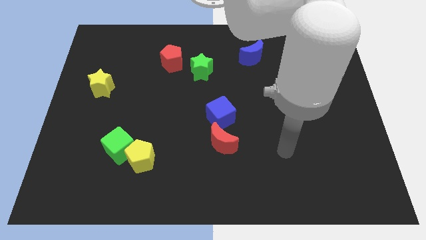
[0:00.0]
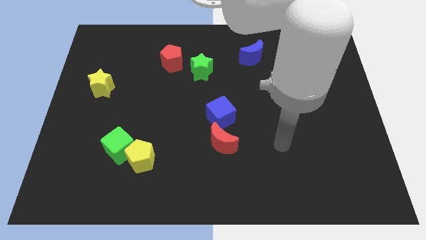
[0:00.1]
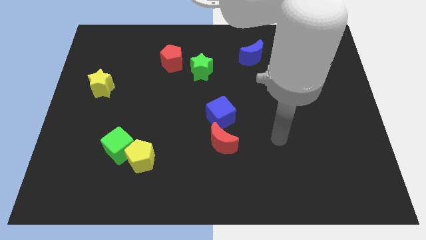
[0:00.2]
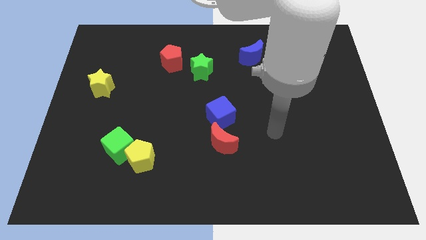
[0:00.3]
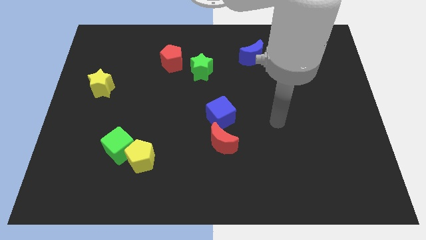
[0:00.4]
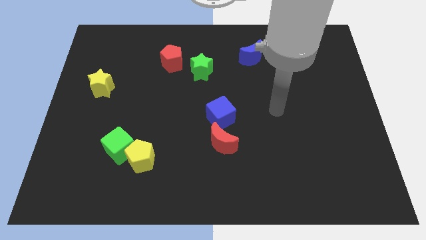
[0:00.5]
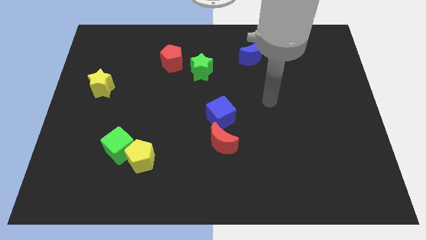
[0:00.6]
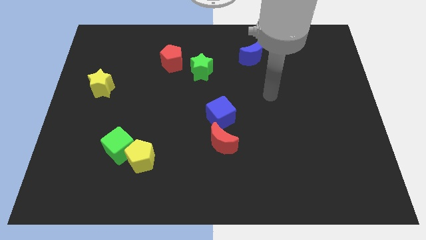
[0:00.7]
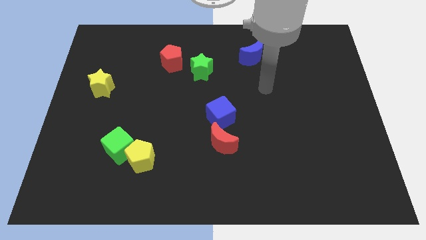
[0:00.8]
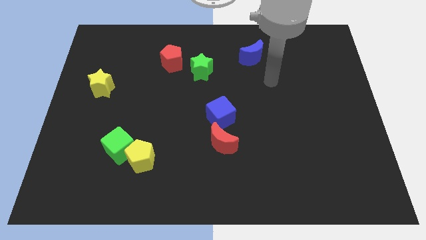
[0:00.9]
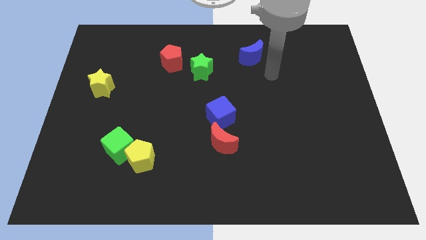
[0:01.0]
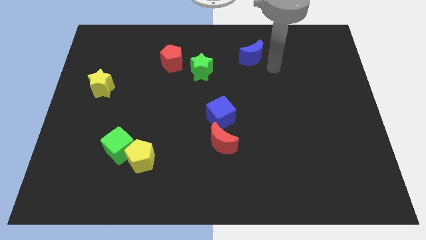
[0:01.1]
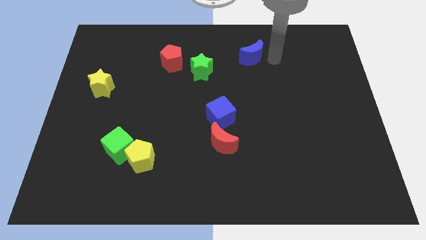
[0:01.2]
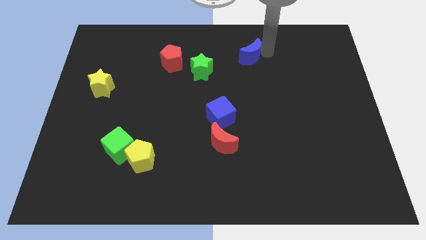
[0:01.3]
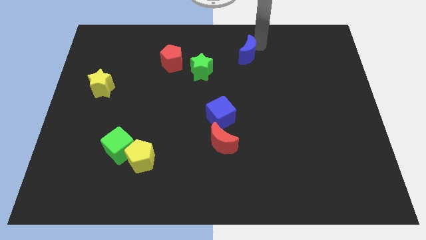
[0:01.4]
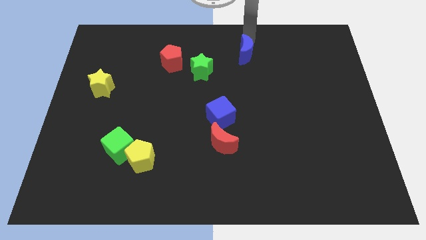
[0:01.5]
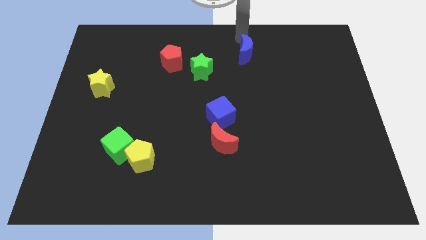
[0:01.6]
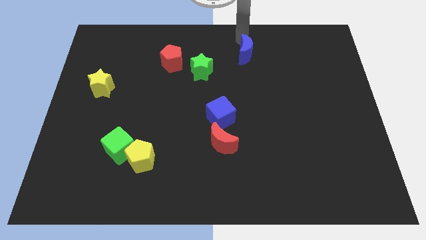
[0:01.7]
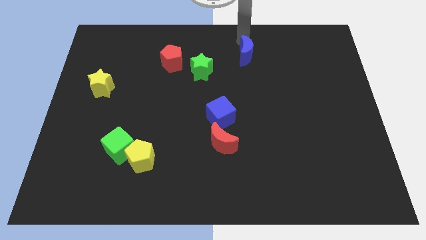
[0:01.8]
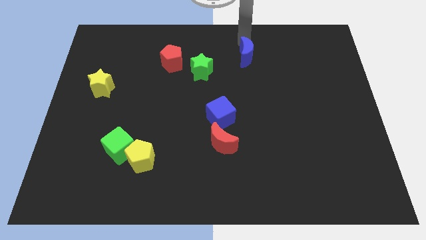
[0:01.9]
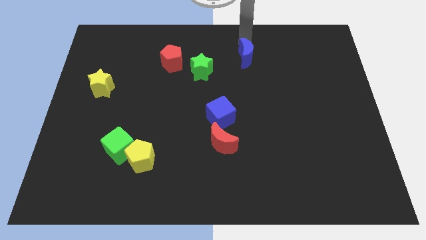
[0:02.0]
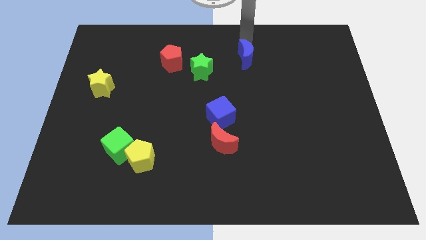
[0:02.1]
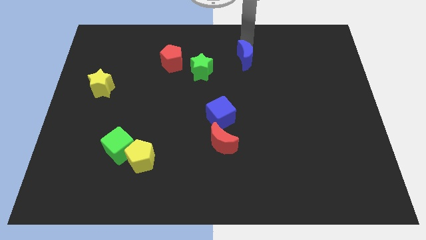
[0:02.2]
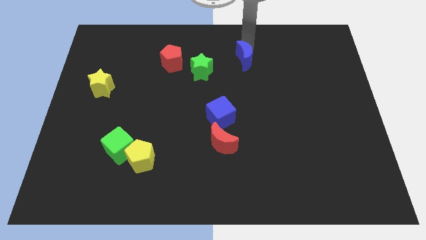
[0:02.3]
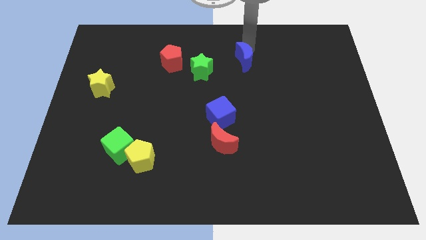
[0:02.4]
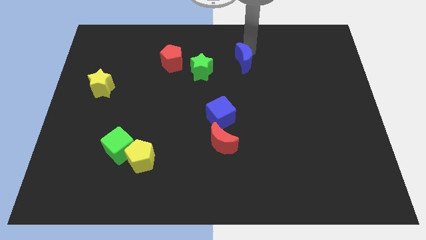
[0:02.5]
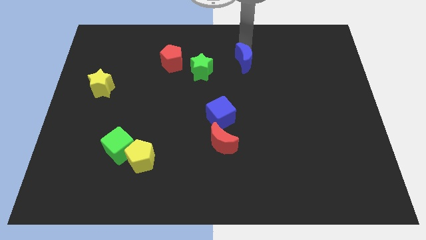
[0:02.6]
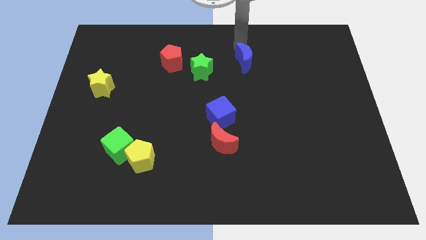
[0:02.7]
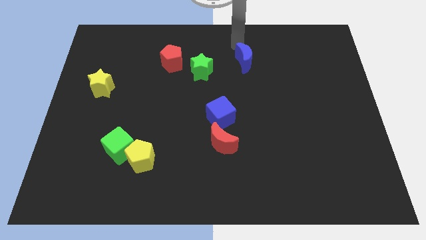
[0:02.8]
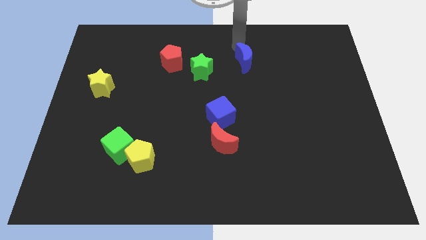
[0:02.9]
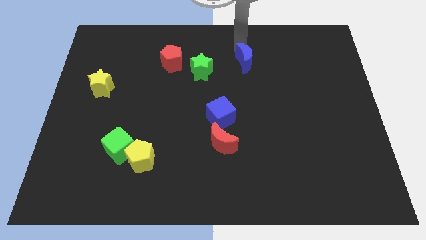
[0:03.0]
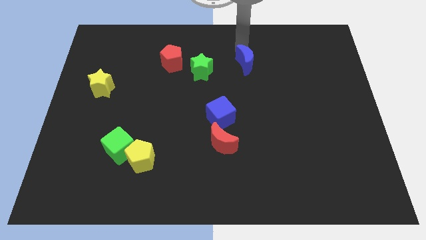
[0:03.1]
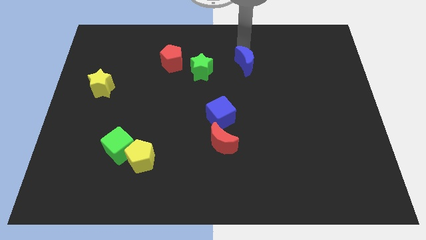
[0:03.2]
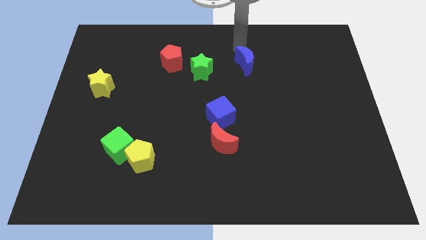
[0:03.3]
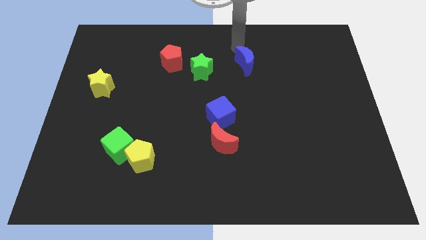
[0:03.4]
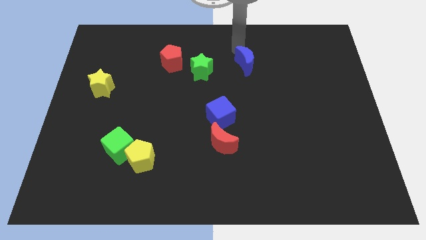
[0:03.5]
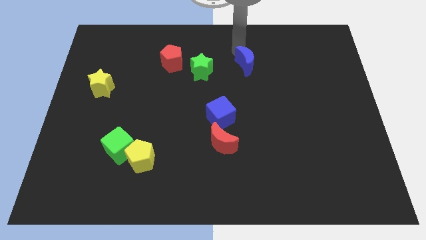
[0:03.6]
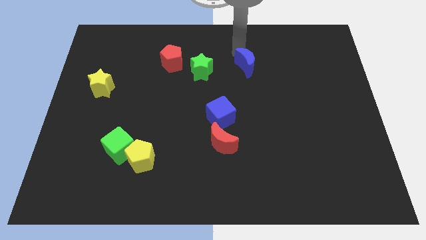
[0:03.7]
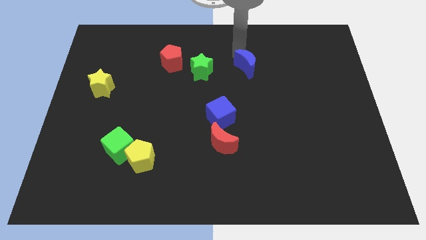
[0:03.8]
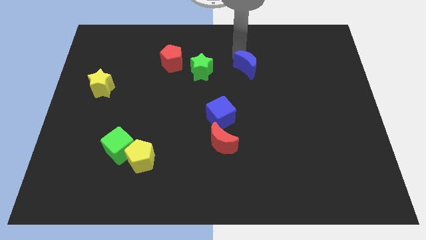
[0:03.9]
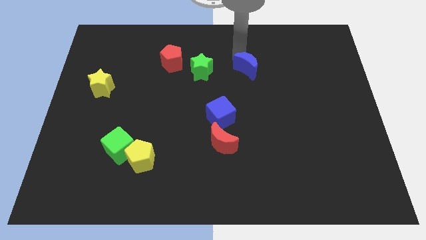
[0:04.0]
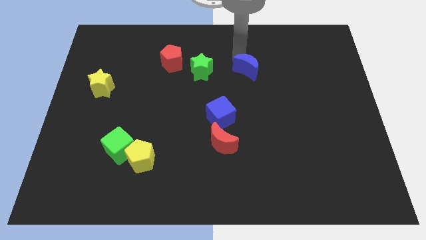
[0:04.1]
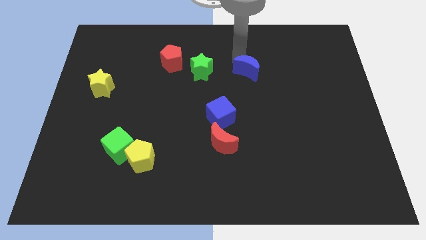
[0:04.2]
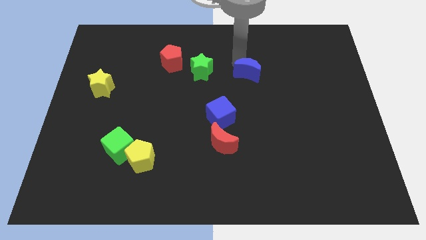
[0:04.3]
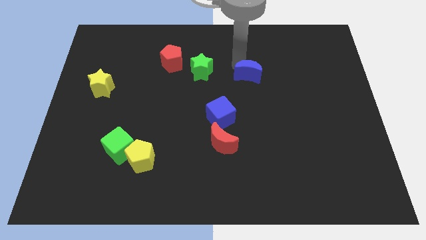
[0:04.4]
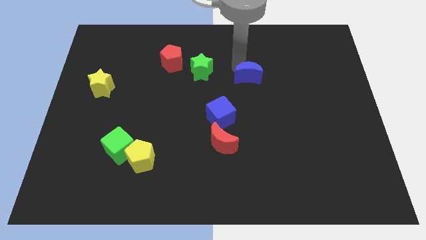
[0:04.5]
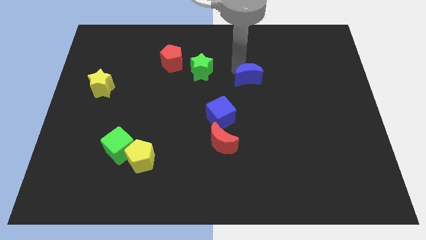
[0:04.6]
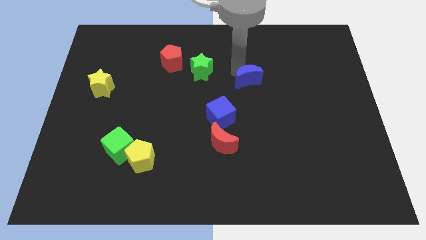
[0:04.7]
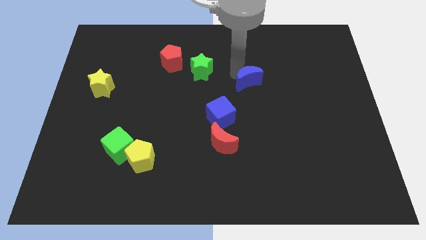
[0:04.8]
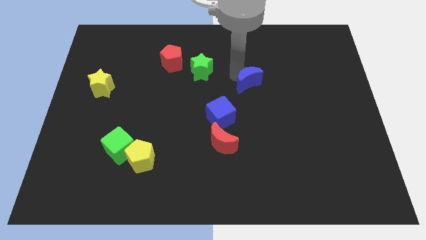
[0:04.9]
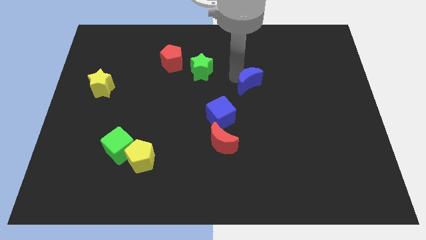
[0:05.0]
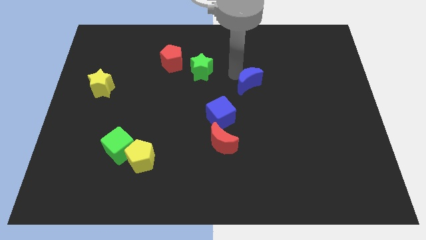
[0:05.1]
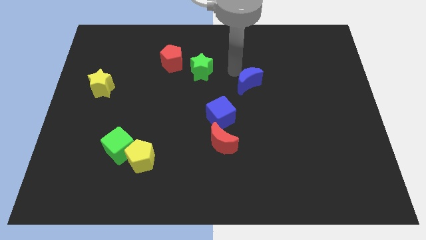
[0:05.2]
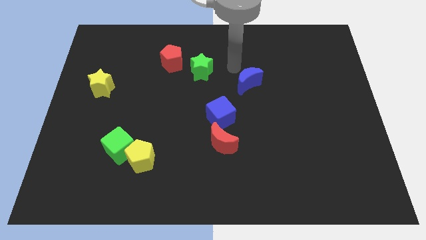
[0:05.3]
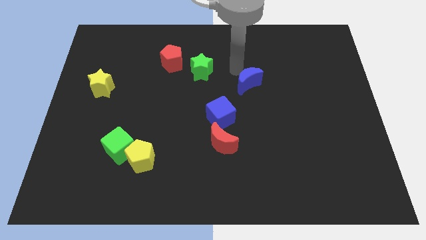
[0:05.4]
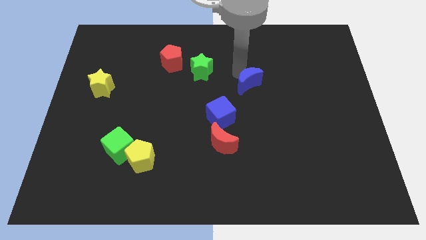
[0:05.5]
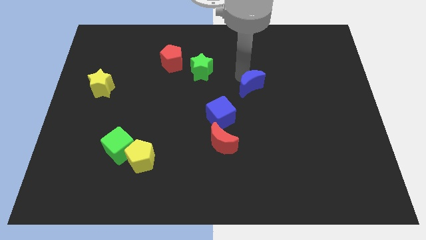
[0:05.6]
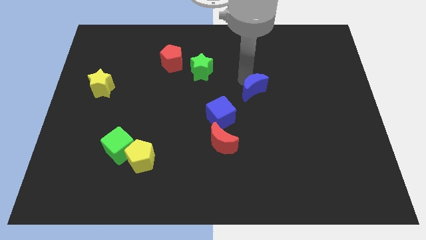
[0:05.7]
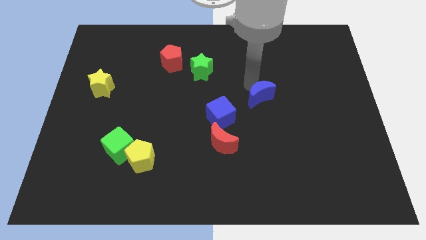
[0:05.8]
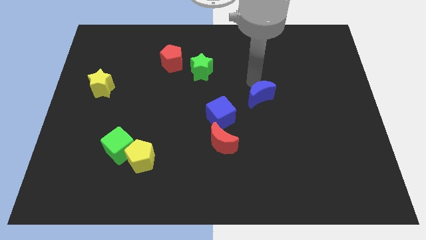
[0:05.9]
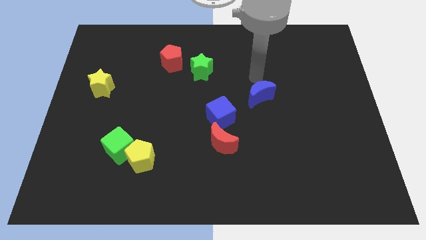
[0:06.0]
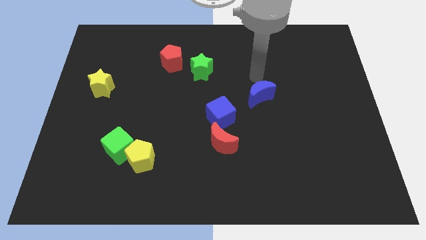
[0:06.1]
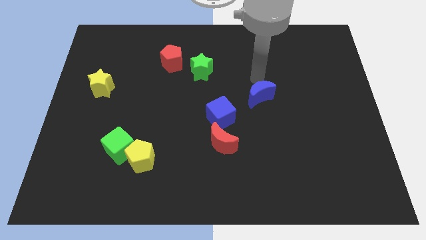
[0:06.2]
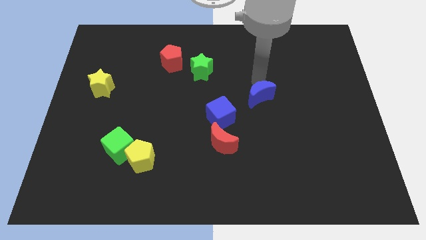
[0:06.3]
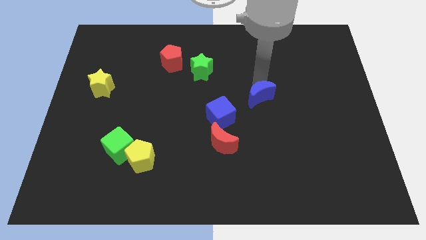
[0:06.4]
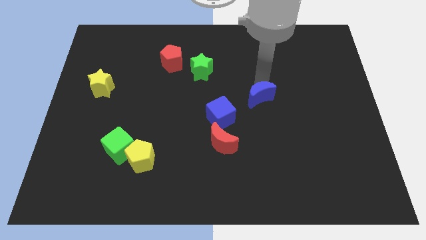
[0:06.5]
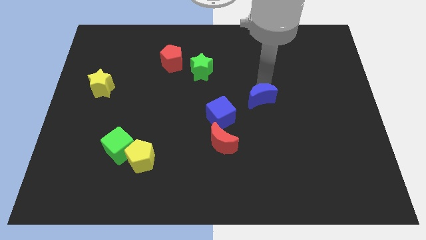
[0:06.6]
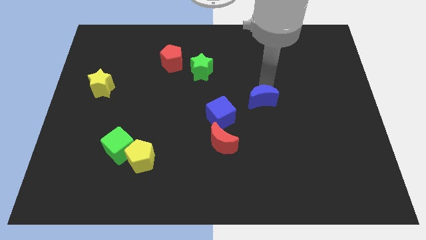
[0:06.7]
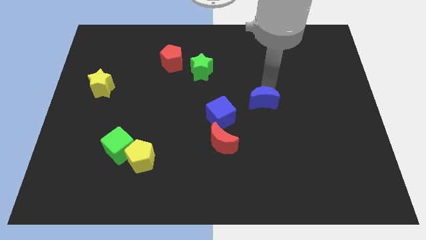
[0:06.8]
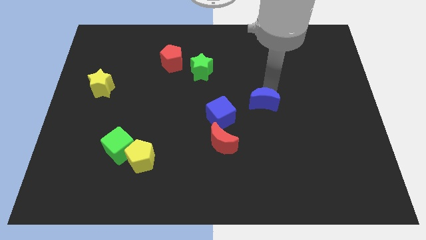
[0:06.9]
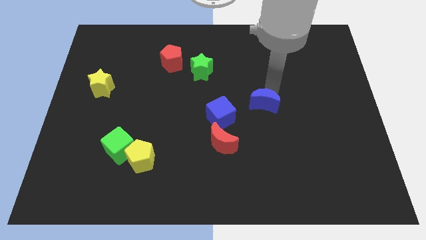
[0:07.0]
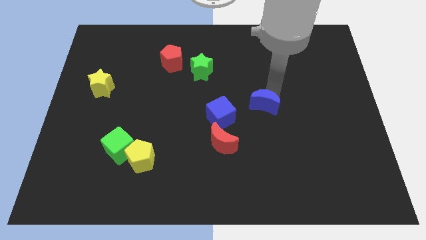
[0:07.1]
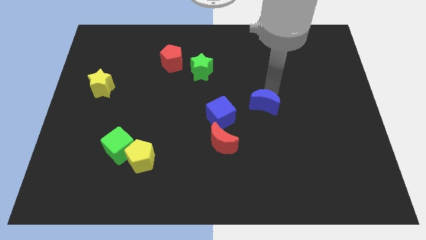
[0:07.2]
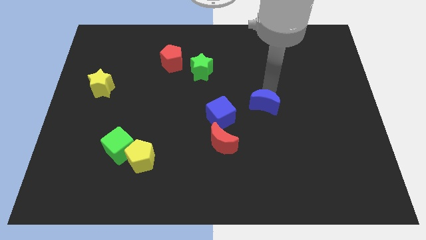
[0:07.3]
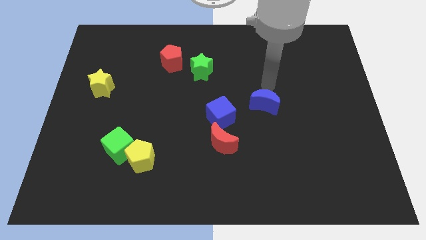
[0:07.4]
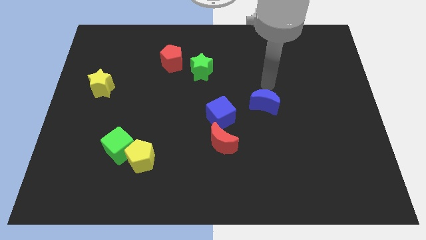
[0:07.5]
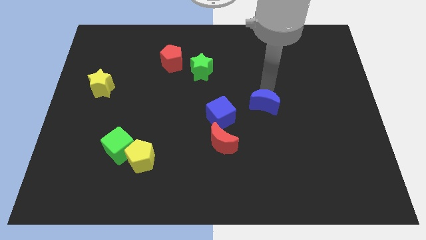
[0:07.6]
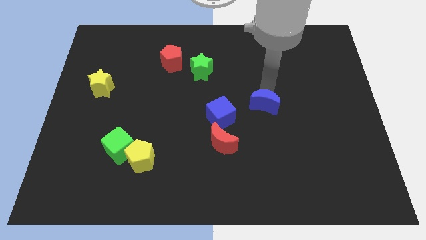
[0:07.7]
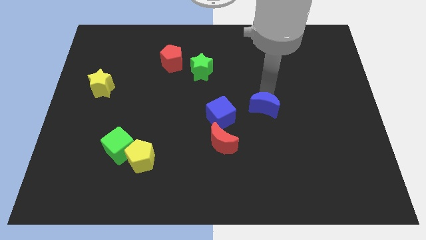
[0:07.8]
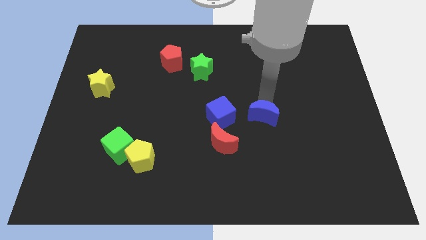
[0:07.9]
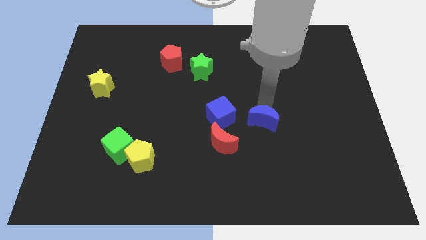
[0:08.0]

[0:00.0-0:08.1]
push the blue moon down

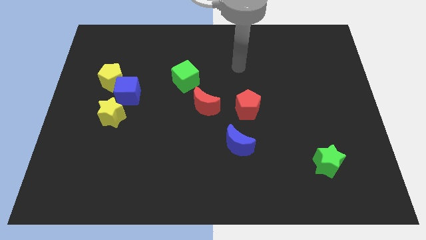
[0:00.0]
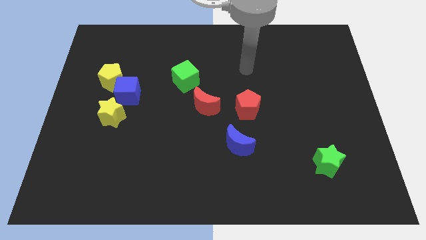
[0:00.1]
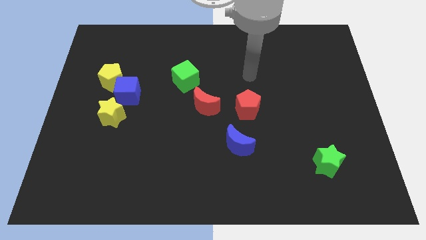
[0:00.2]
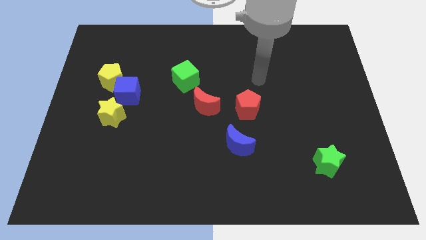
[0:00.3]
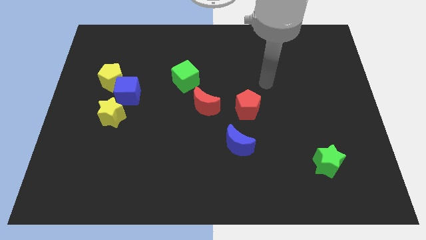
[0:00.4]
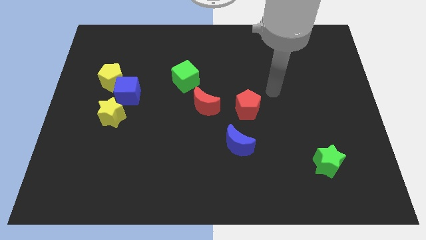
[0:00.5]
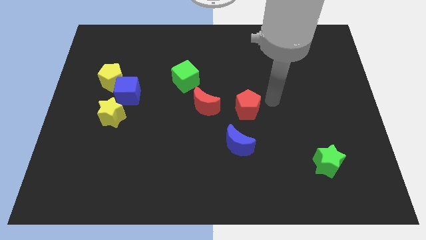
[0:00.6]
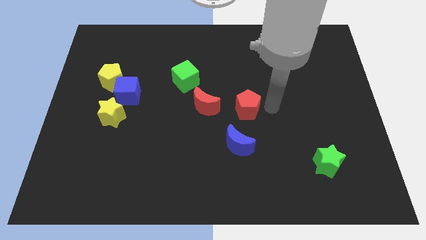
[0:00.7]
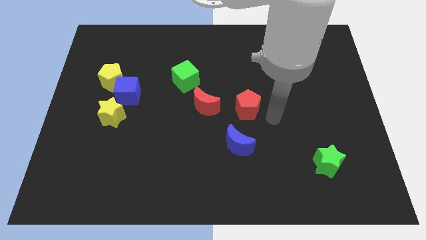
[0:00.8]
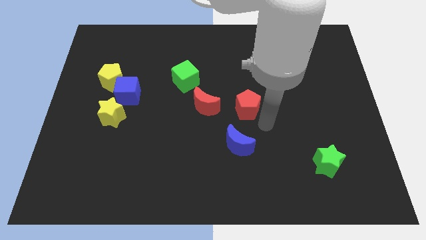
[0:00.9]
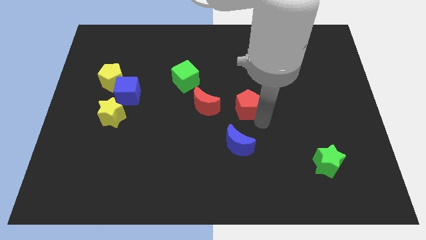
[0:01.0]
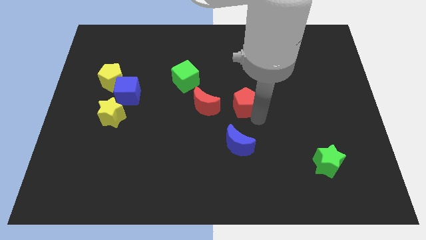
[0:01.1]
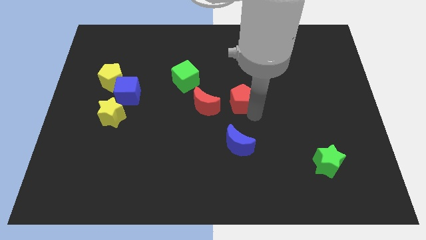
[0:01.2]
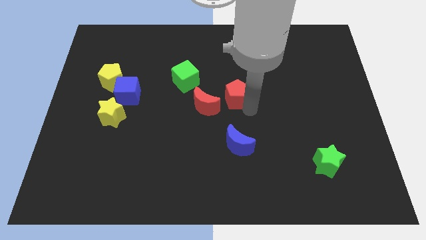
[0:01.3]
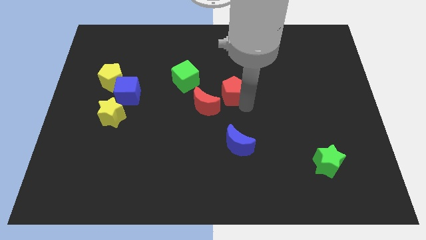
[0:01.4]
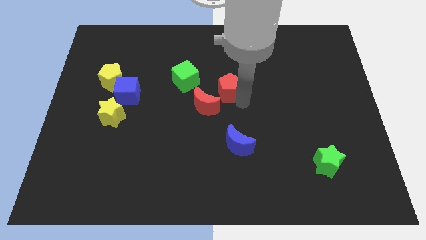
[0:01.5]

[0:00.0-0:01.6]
push the red pentagon upwards and to the left somewhat
